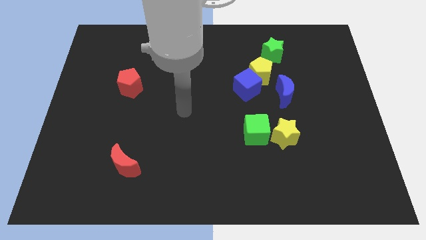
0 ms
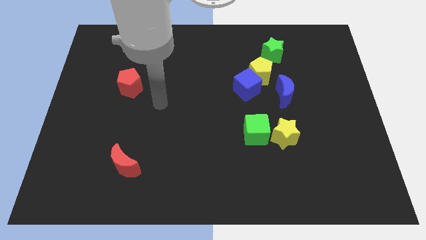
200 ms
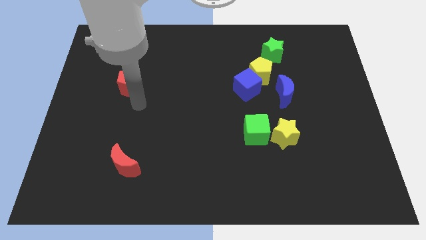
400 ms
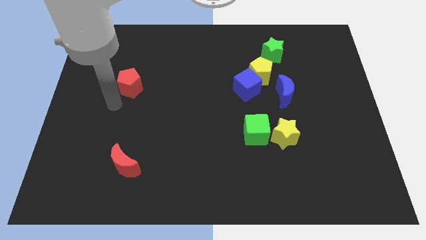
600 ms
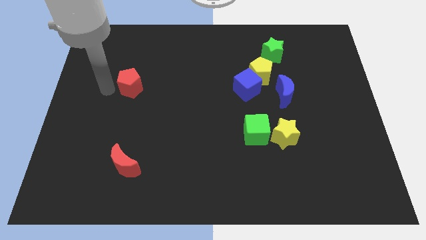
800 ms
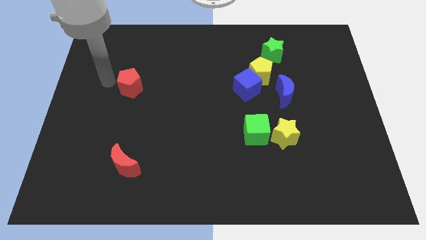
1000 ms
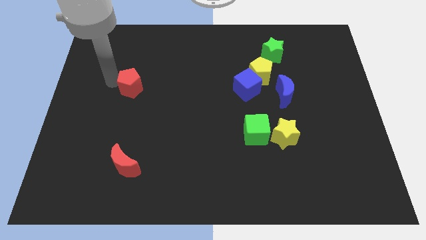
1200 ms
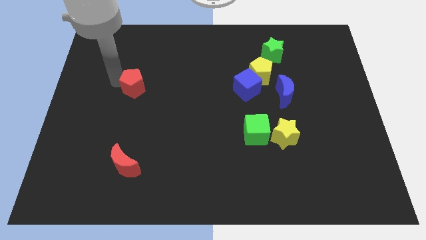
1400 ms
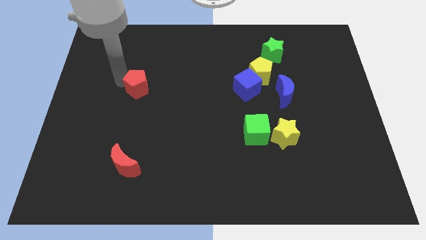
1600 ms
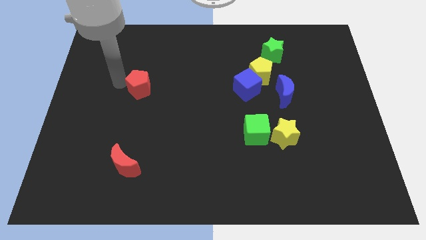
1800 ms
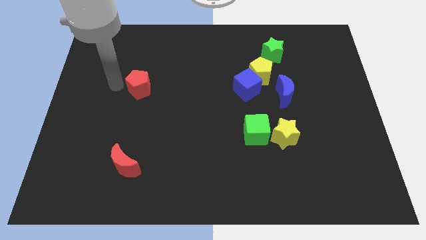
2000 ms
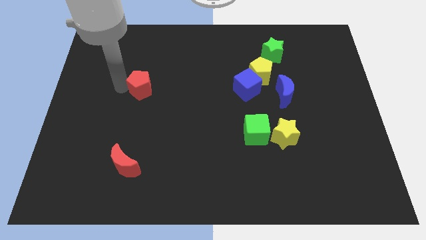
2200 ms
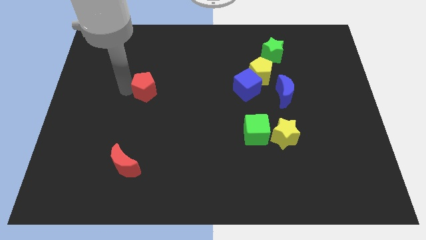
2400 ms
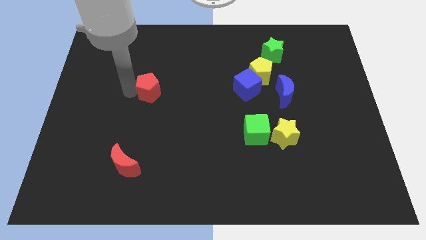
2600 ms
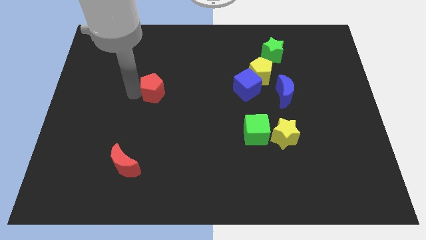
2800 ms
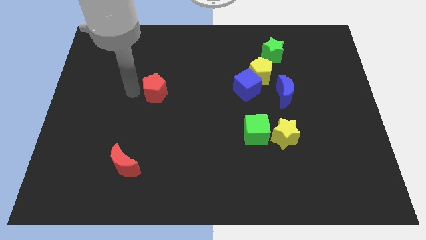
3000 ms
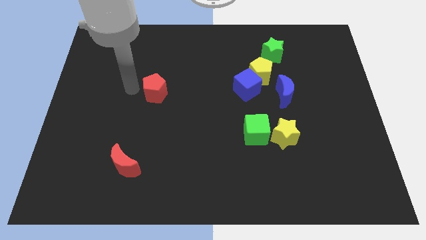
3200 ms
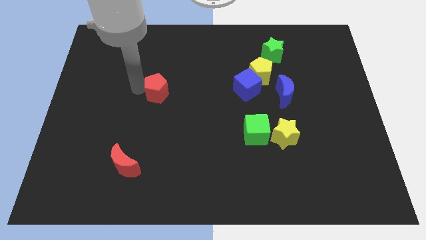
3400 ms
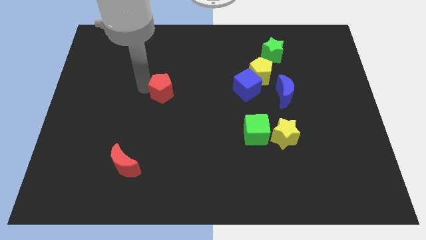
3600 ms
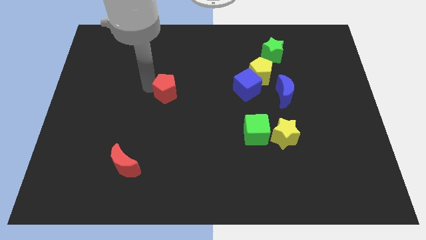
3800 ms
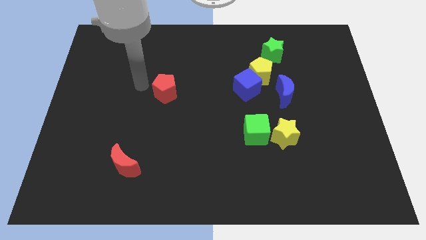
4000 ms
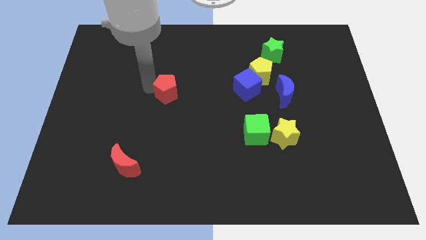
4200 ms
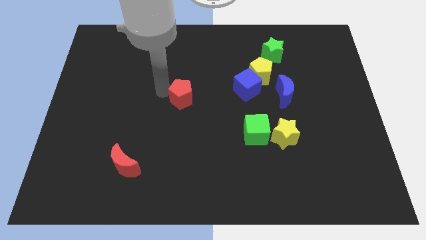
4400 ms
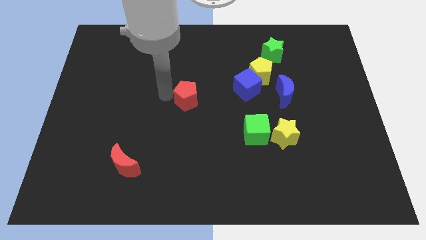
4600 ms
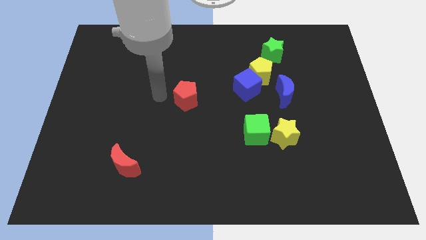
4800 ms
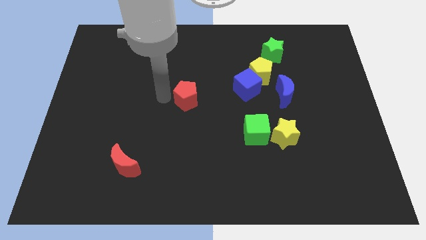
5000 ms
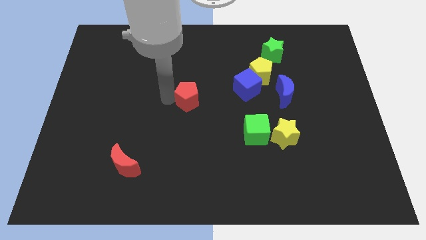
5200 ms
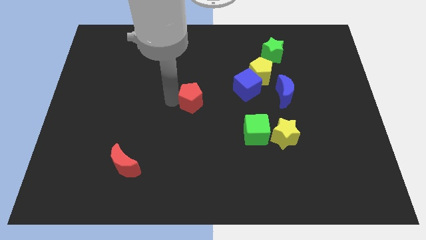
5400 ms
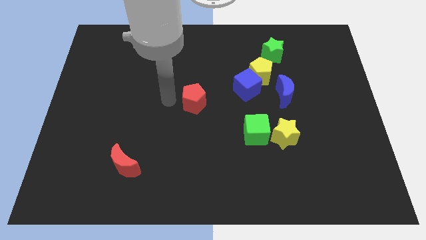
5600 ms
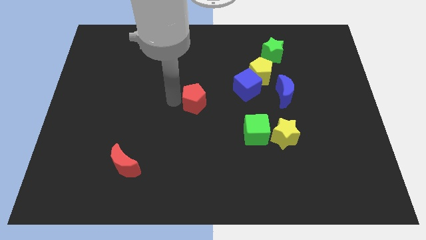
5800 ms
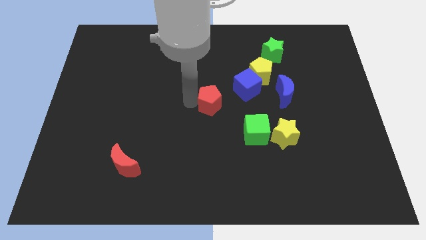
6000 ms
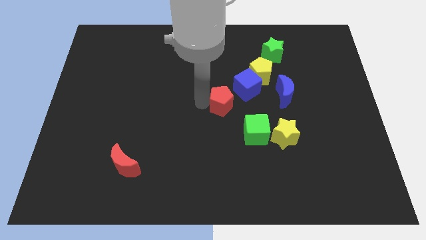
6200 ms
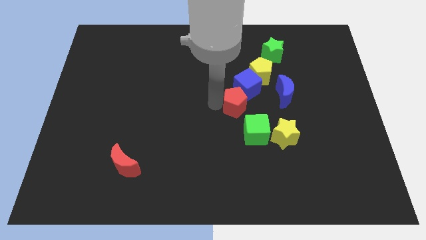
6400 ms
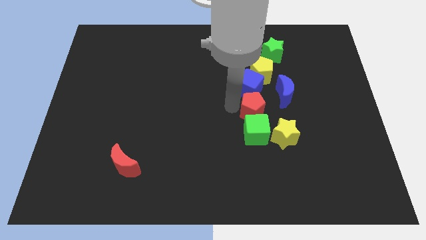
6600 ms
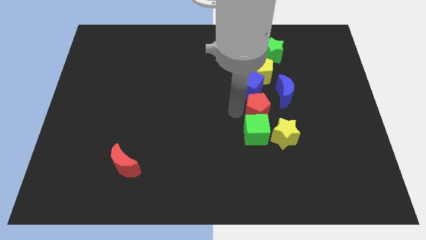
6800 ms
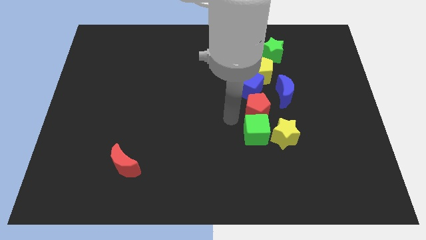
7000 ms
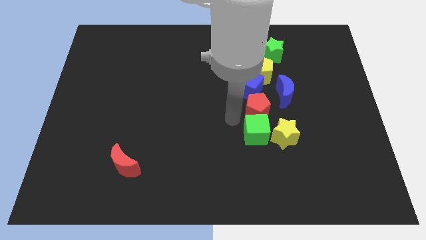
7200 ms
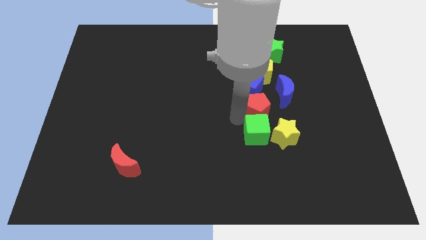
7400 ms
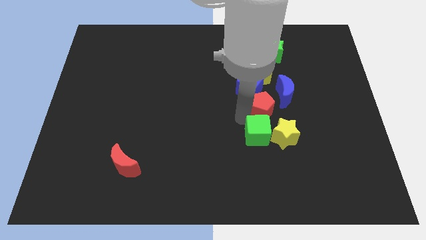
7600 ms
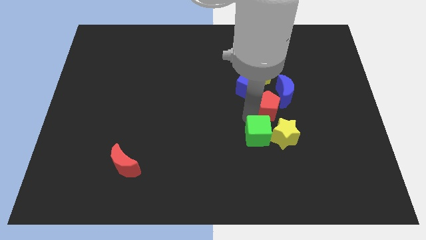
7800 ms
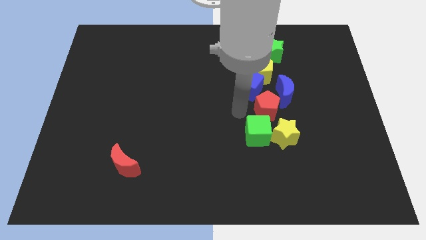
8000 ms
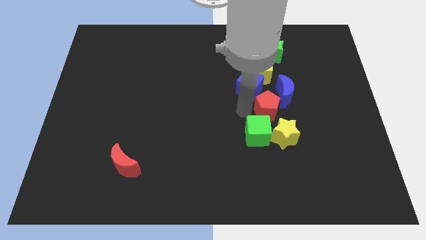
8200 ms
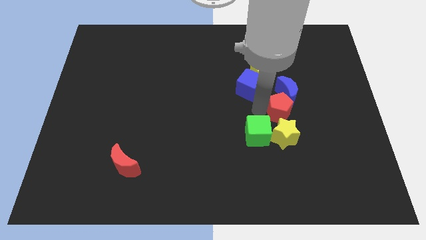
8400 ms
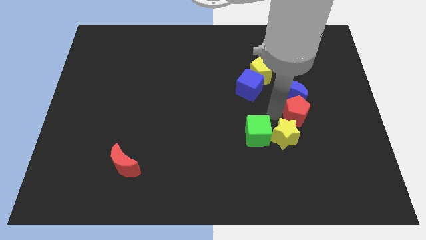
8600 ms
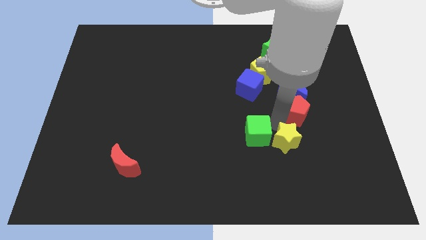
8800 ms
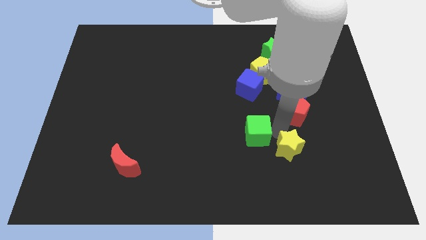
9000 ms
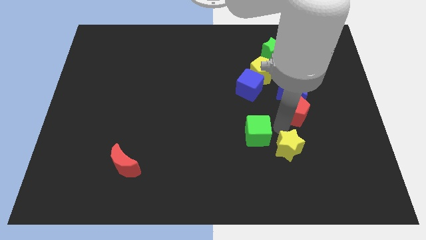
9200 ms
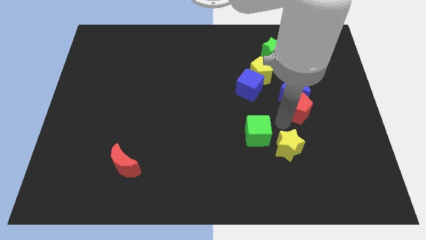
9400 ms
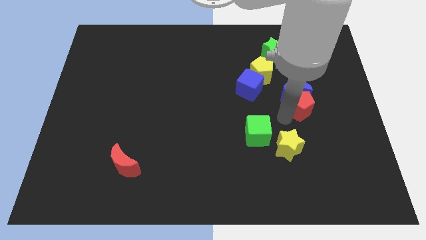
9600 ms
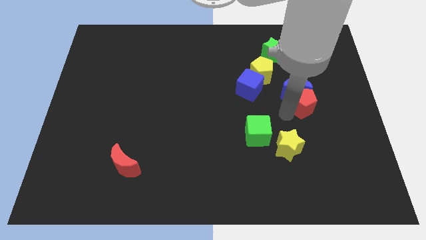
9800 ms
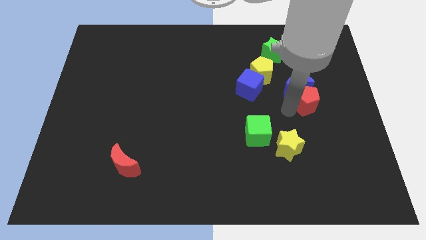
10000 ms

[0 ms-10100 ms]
put the red pentagon to the right side of the blue cube

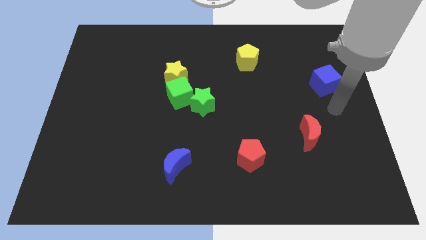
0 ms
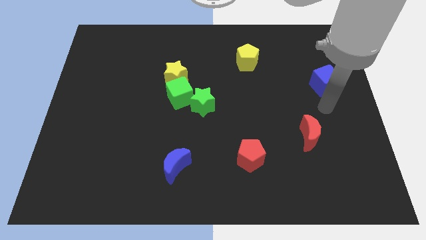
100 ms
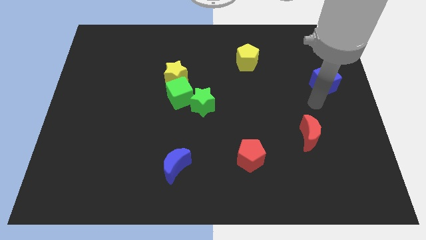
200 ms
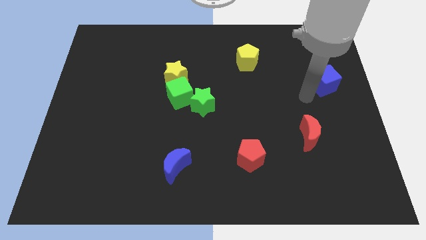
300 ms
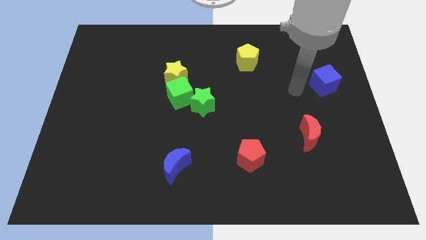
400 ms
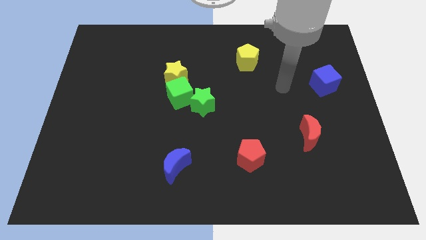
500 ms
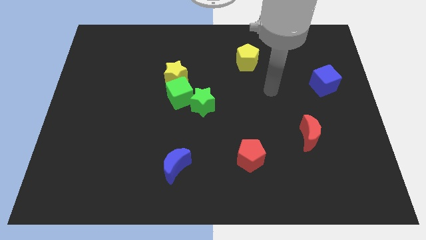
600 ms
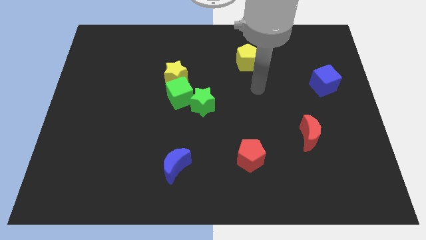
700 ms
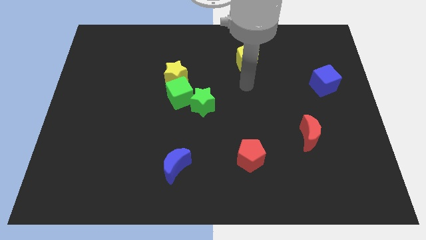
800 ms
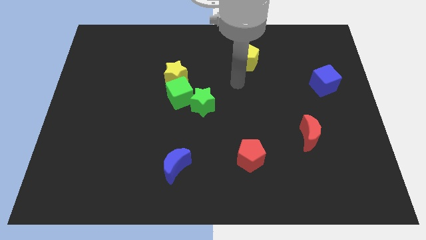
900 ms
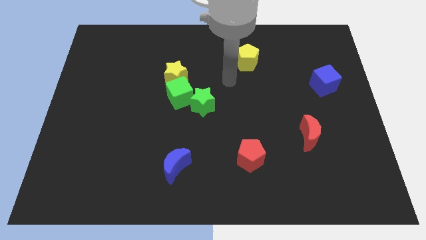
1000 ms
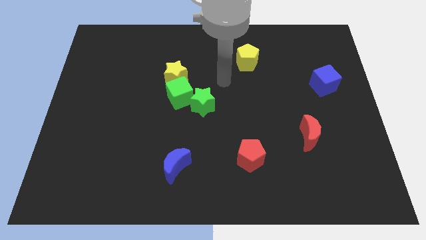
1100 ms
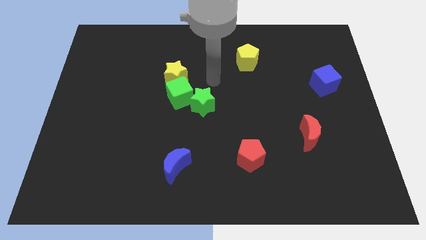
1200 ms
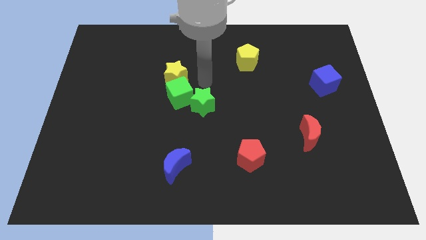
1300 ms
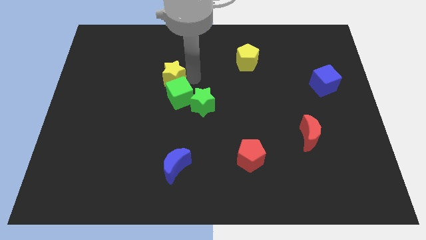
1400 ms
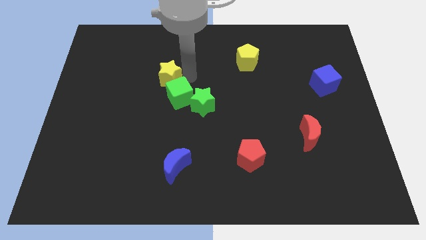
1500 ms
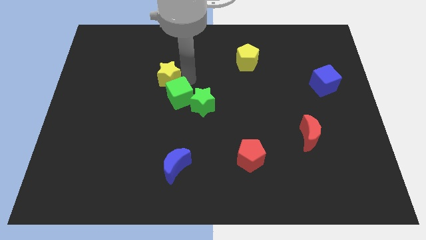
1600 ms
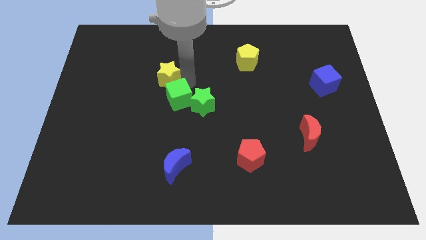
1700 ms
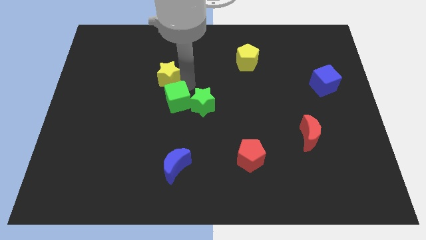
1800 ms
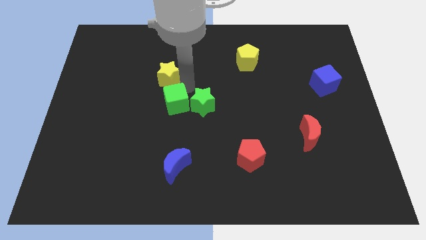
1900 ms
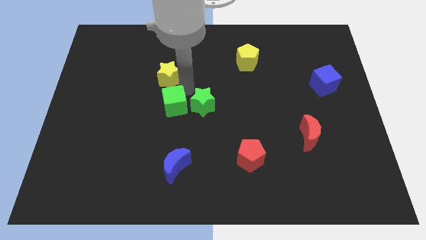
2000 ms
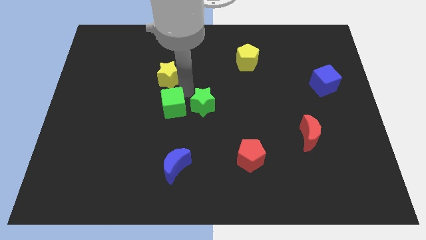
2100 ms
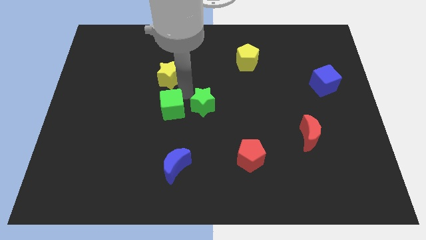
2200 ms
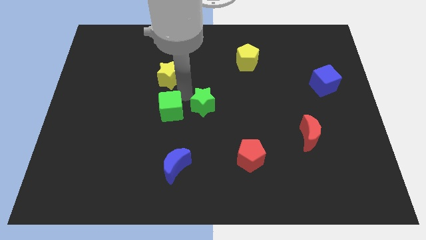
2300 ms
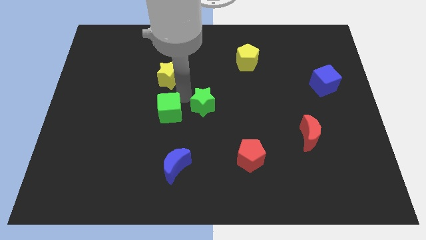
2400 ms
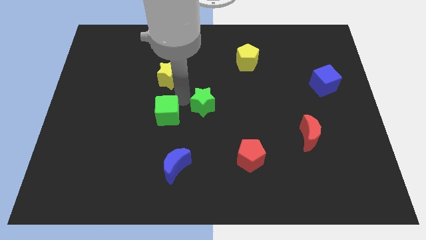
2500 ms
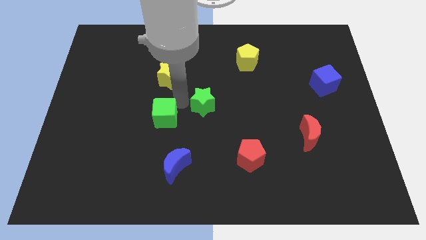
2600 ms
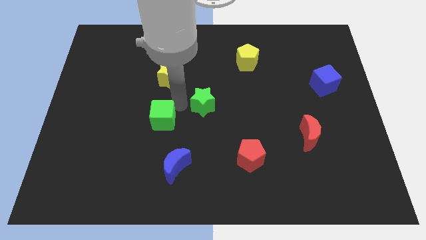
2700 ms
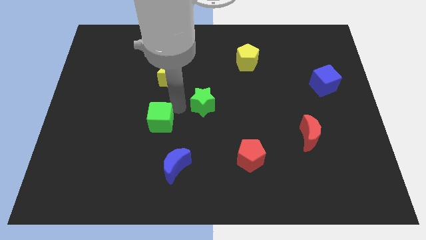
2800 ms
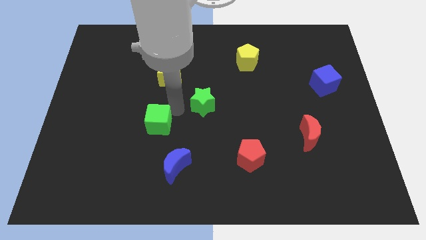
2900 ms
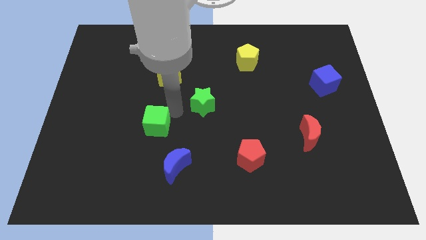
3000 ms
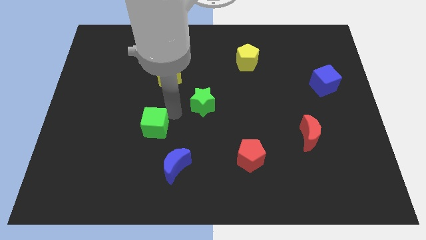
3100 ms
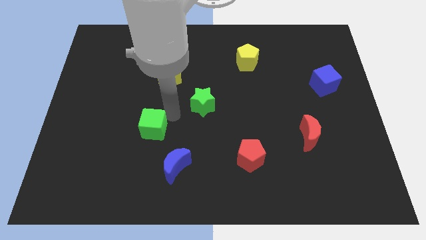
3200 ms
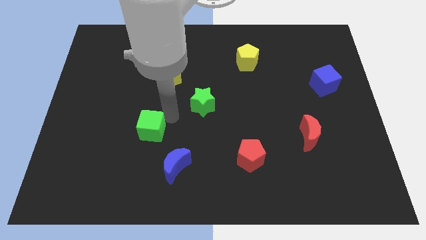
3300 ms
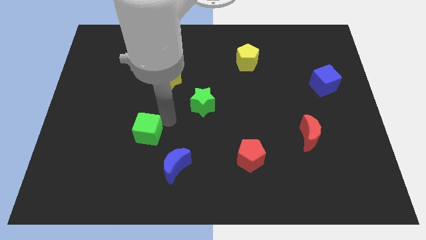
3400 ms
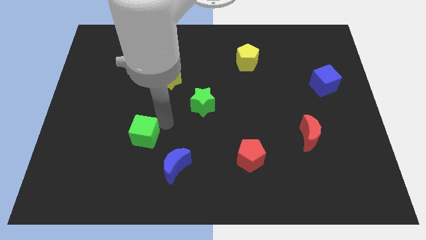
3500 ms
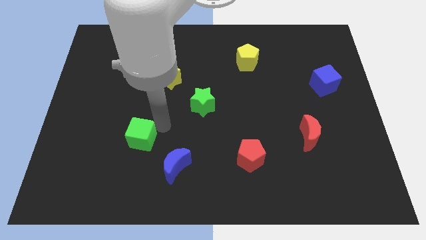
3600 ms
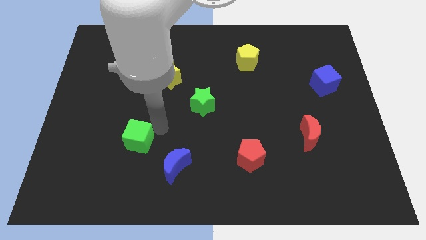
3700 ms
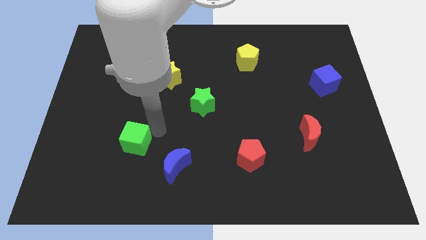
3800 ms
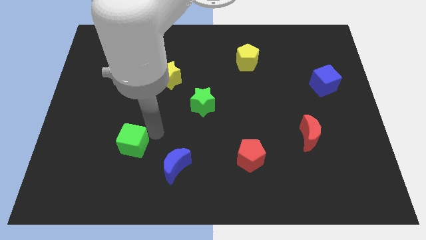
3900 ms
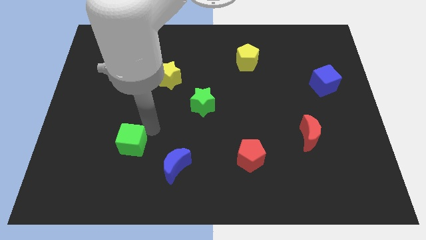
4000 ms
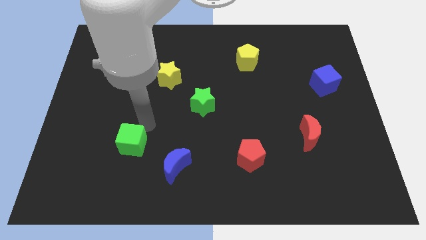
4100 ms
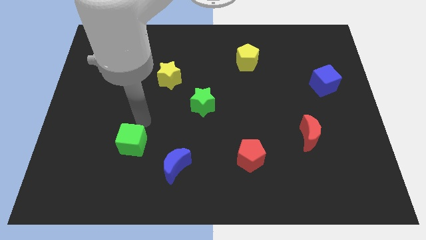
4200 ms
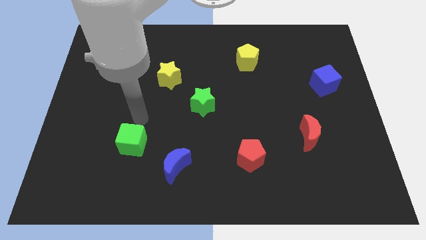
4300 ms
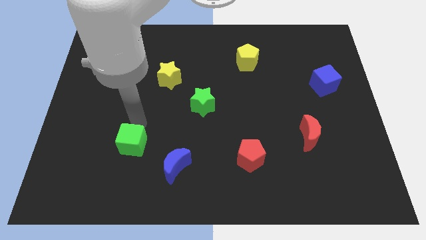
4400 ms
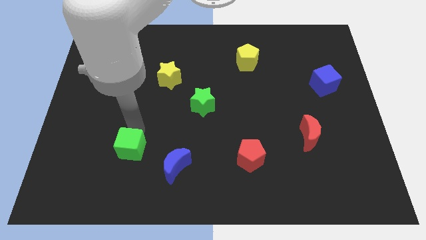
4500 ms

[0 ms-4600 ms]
slide the green cube left of the blue moon
